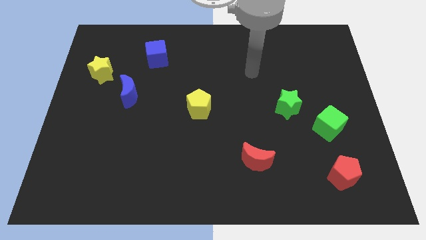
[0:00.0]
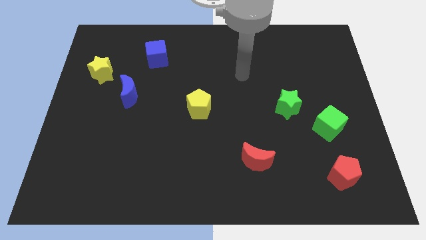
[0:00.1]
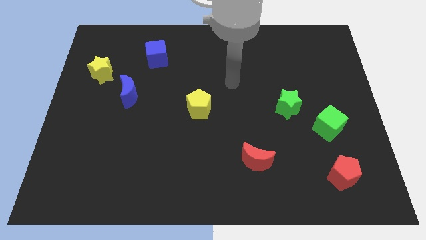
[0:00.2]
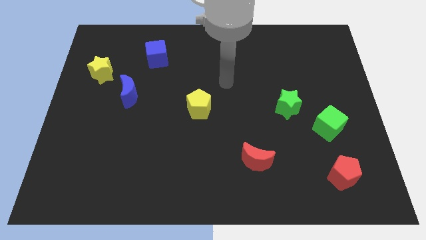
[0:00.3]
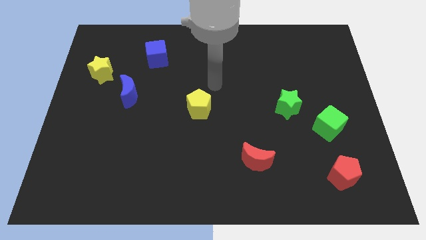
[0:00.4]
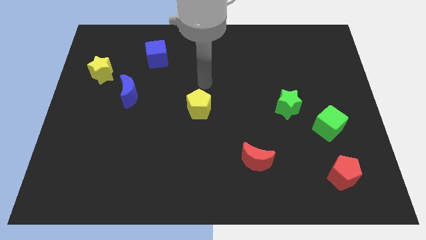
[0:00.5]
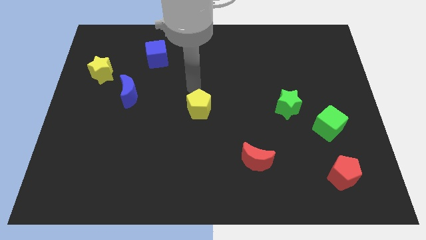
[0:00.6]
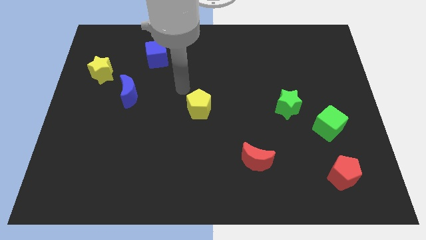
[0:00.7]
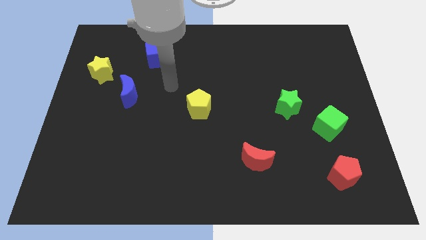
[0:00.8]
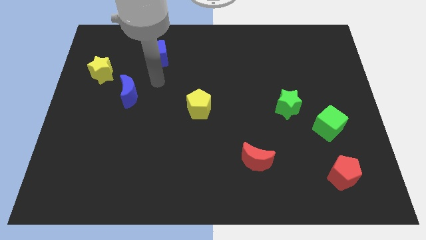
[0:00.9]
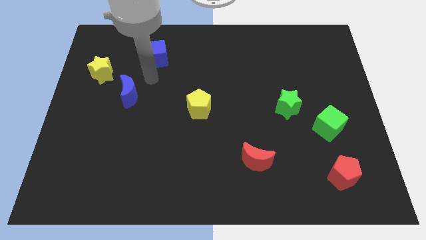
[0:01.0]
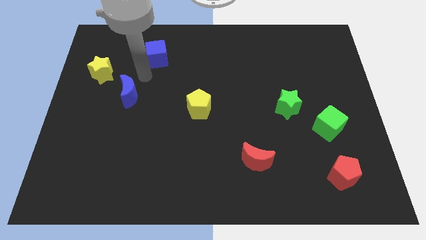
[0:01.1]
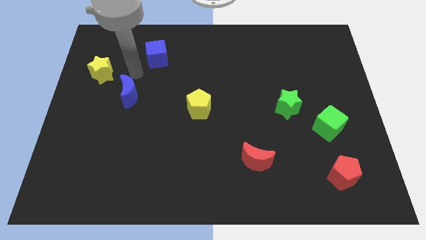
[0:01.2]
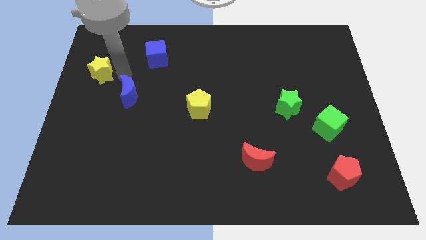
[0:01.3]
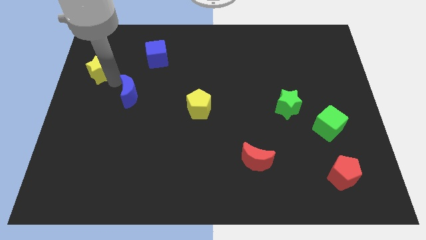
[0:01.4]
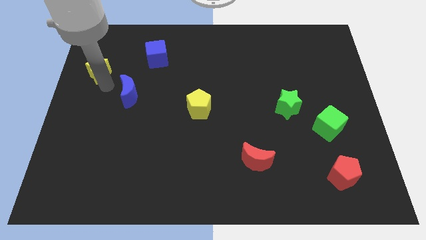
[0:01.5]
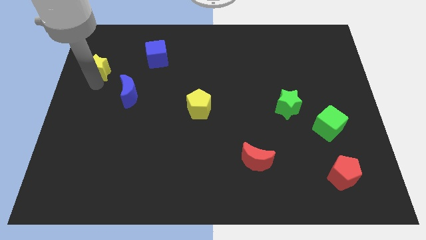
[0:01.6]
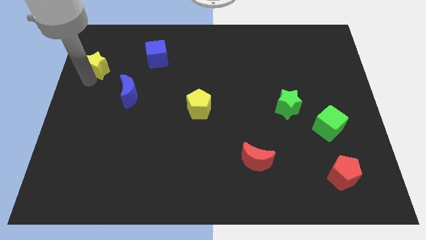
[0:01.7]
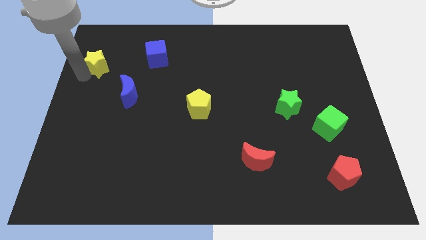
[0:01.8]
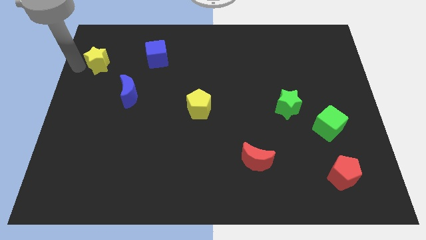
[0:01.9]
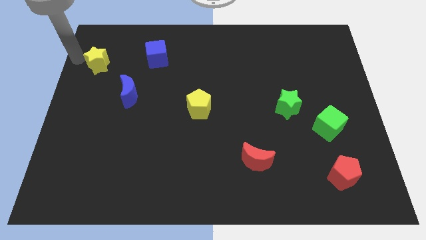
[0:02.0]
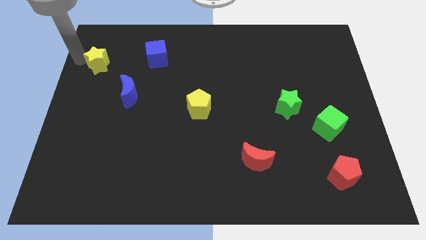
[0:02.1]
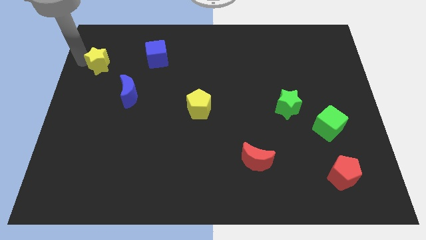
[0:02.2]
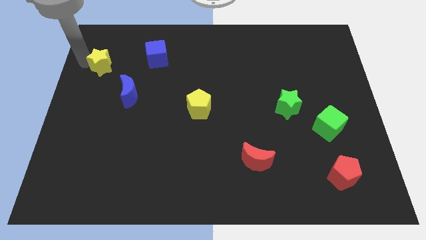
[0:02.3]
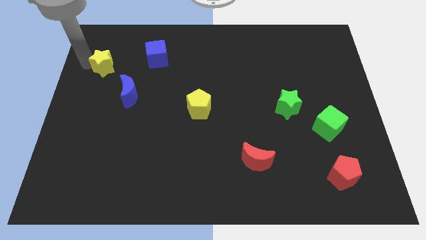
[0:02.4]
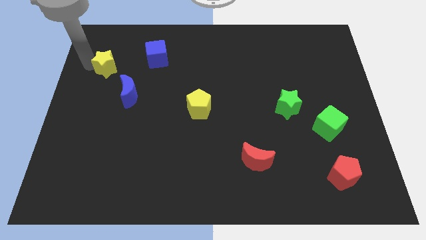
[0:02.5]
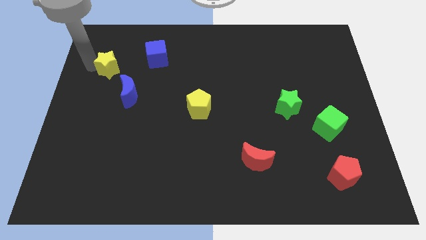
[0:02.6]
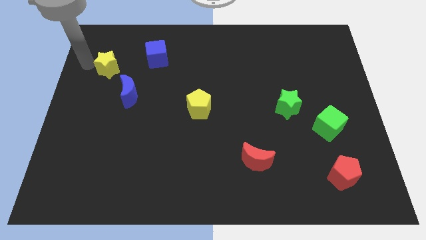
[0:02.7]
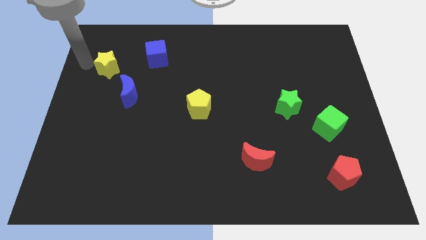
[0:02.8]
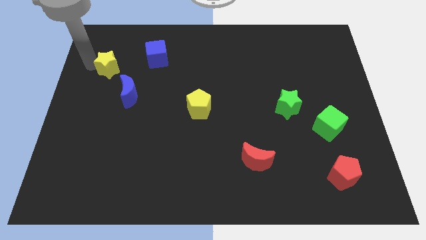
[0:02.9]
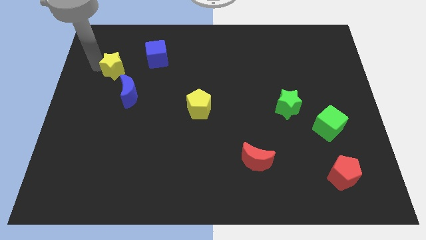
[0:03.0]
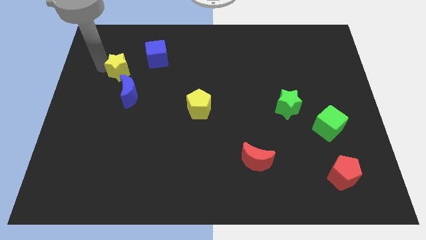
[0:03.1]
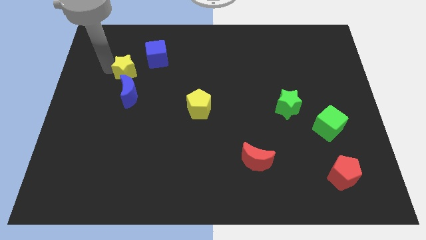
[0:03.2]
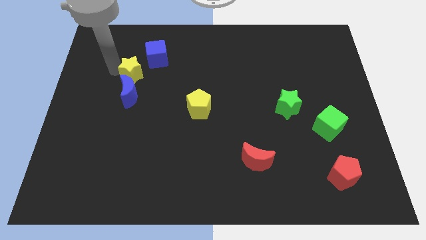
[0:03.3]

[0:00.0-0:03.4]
slightly slide the yellow star right

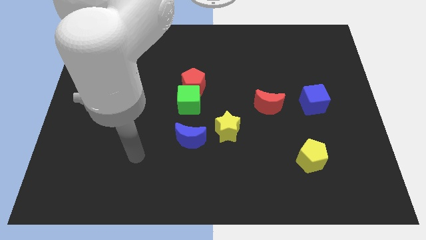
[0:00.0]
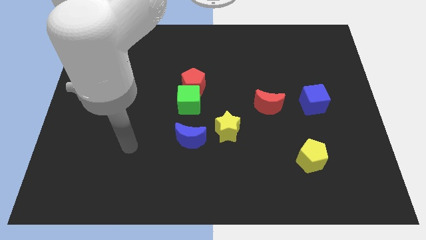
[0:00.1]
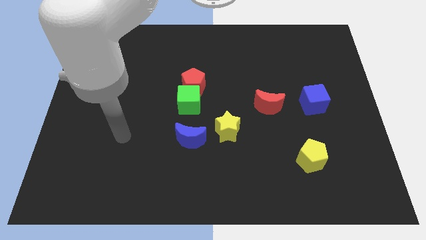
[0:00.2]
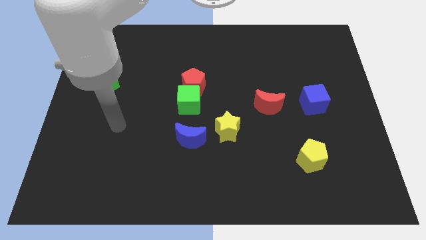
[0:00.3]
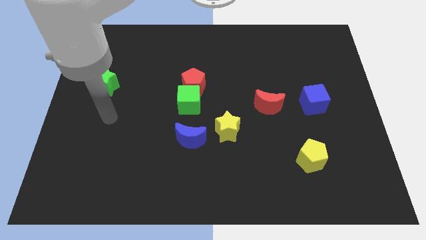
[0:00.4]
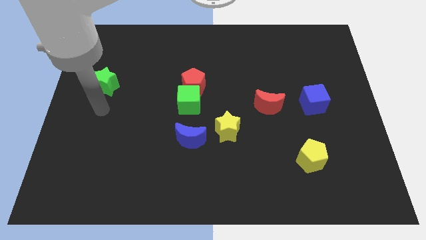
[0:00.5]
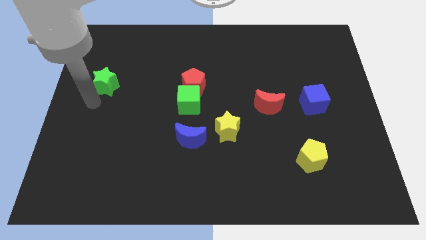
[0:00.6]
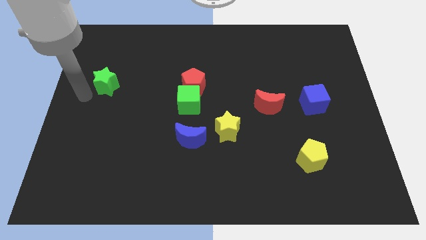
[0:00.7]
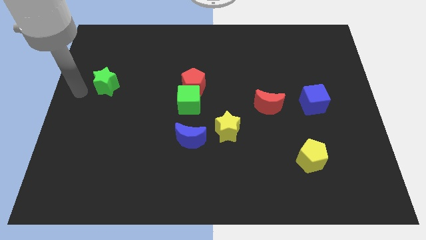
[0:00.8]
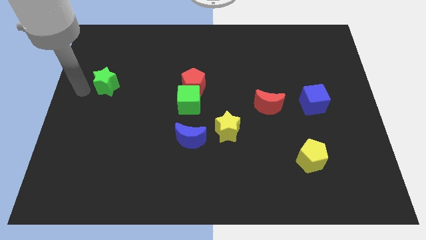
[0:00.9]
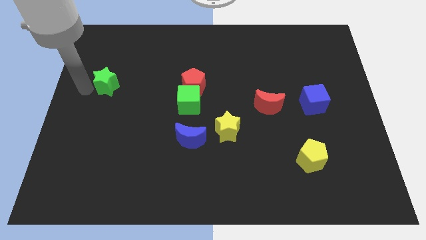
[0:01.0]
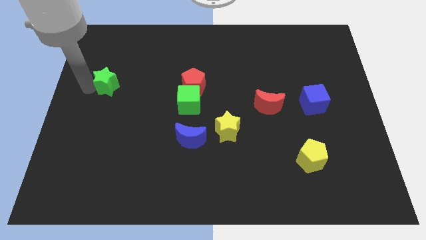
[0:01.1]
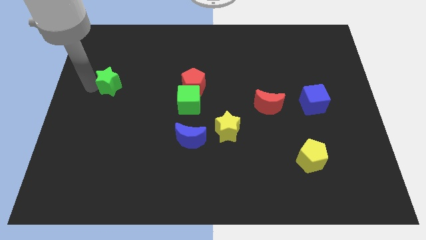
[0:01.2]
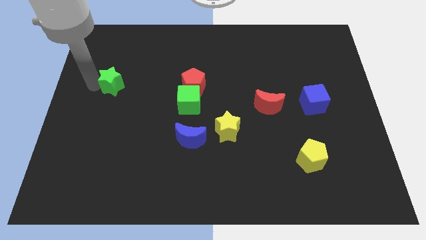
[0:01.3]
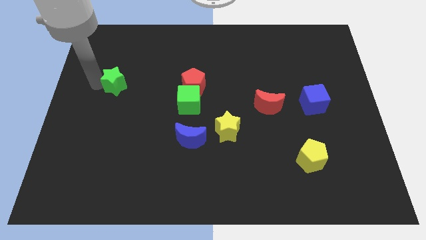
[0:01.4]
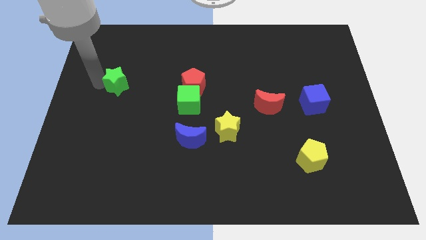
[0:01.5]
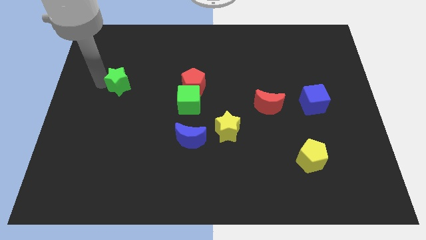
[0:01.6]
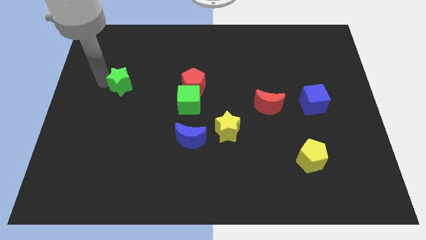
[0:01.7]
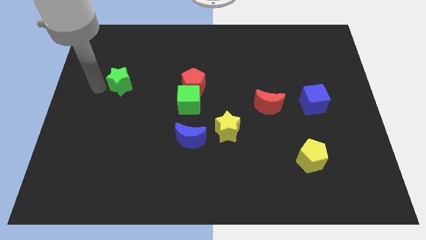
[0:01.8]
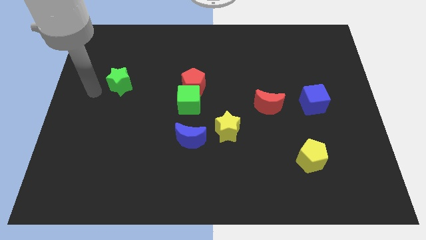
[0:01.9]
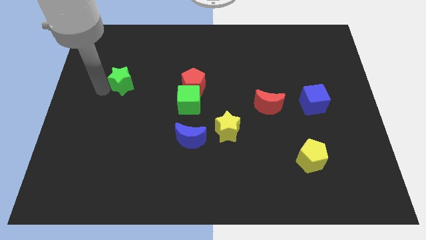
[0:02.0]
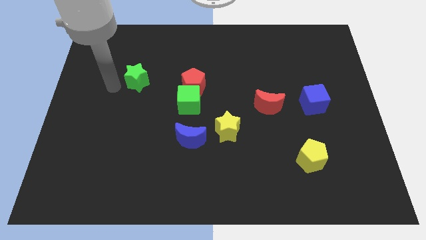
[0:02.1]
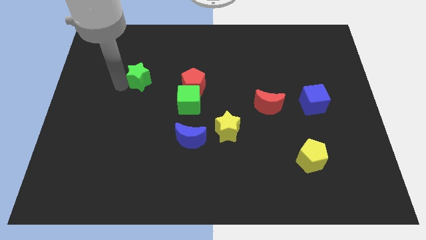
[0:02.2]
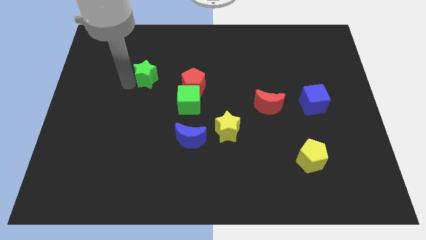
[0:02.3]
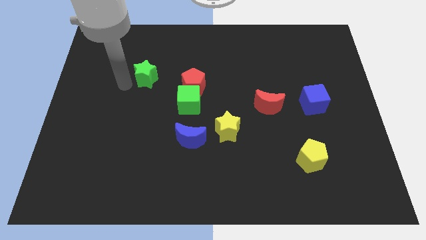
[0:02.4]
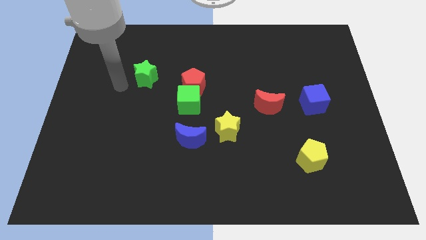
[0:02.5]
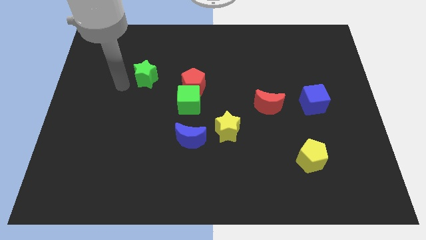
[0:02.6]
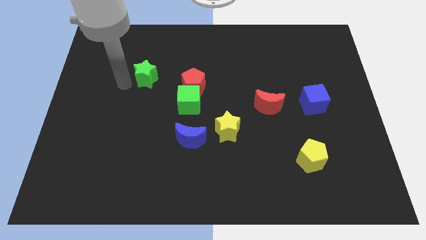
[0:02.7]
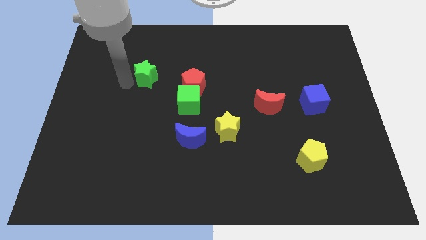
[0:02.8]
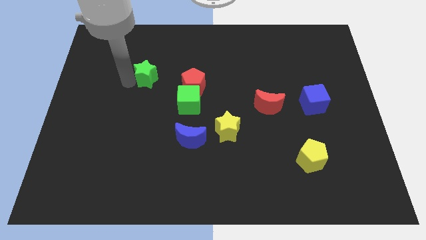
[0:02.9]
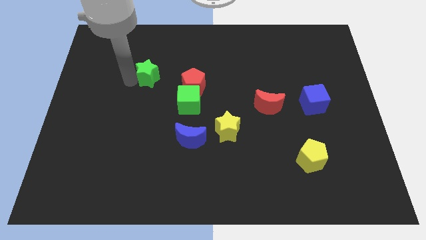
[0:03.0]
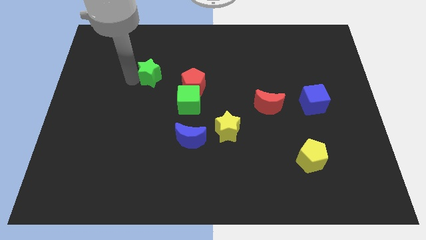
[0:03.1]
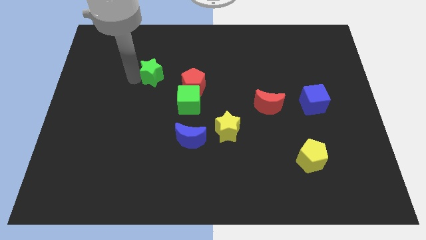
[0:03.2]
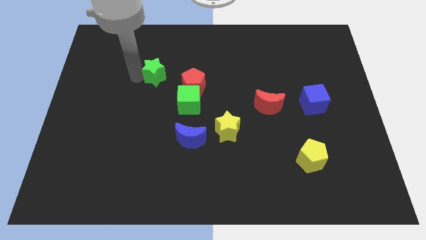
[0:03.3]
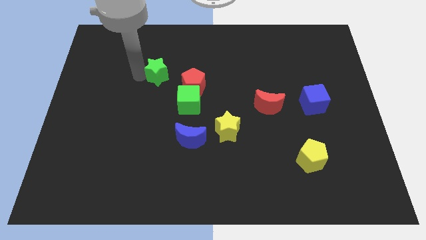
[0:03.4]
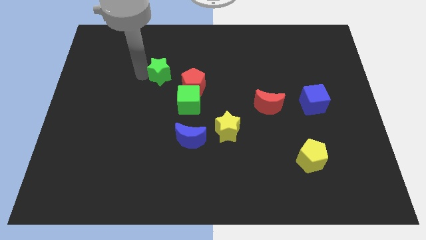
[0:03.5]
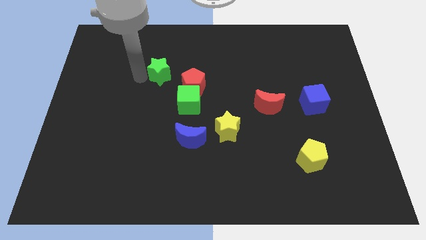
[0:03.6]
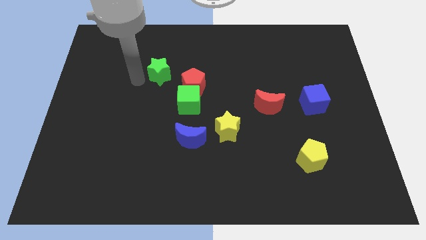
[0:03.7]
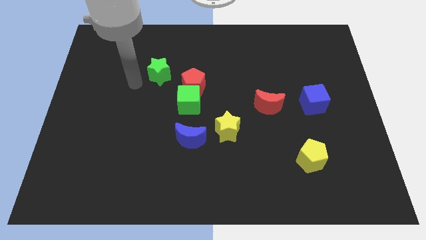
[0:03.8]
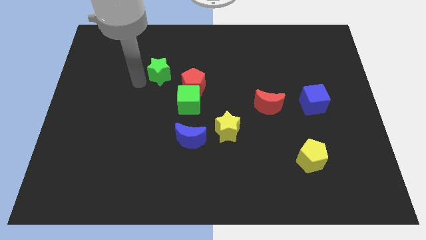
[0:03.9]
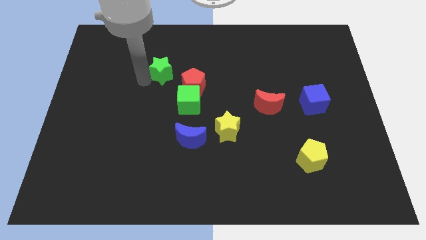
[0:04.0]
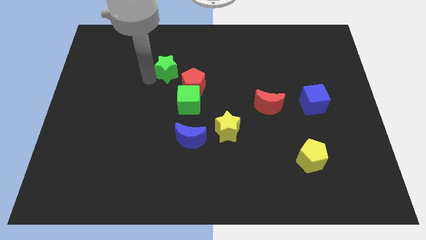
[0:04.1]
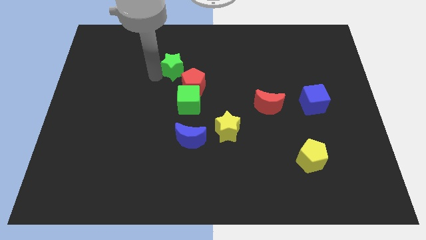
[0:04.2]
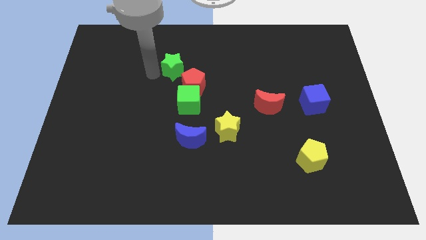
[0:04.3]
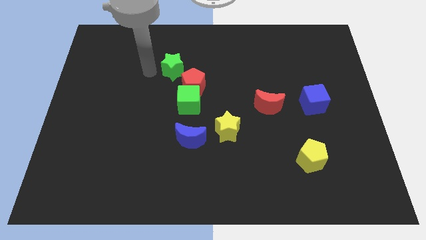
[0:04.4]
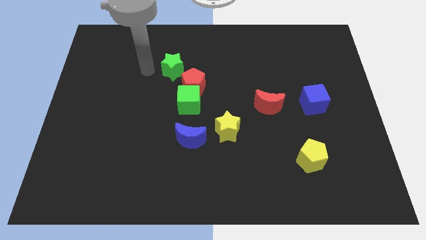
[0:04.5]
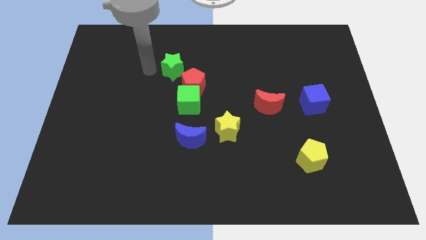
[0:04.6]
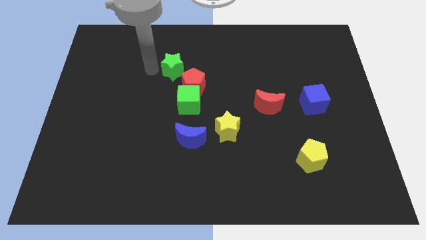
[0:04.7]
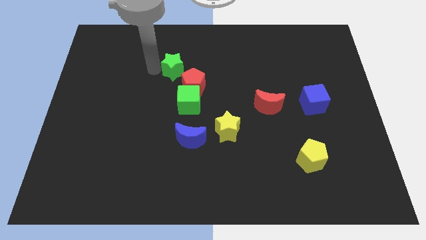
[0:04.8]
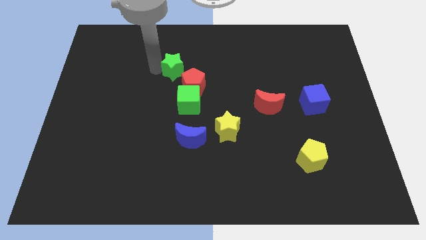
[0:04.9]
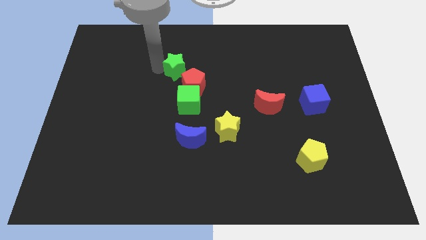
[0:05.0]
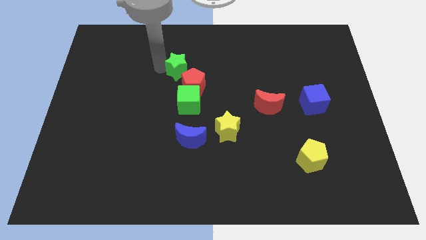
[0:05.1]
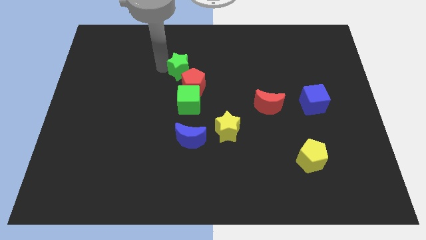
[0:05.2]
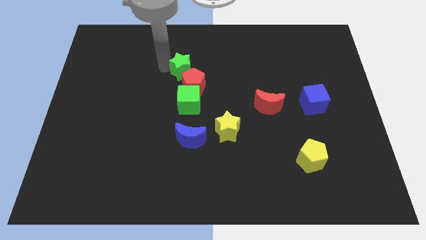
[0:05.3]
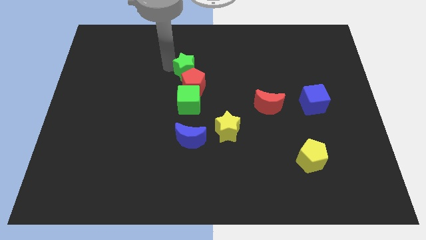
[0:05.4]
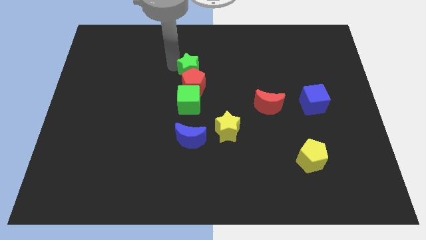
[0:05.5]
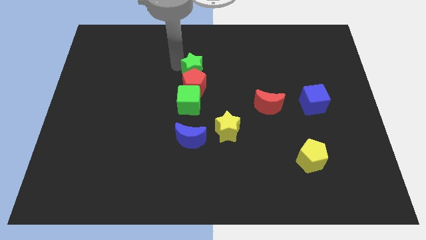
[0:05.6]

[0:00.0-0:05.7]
move the green star to the right
